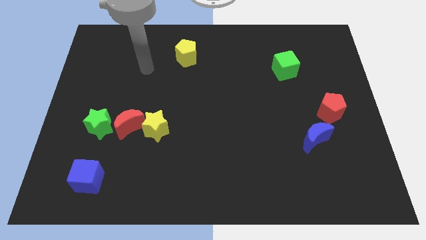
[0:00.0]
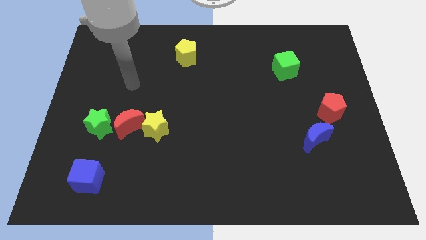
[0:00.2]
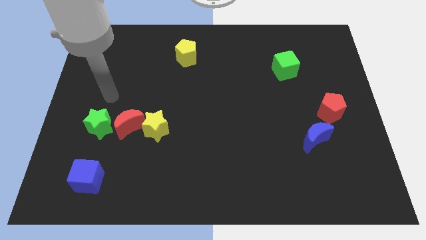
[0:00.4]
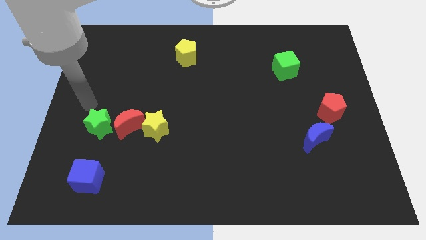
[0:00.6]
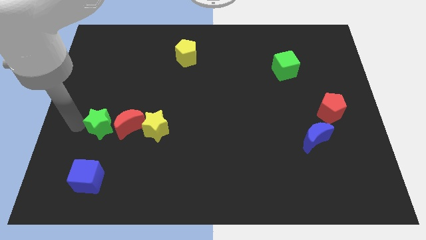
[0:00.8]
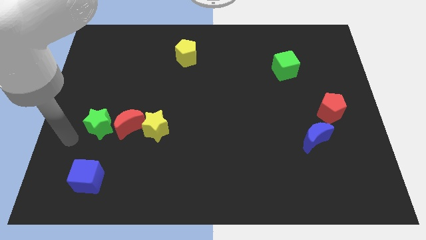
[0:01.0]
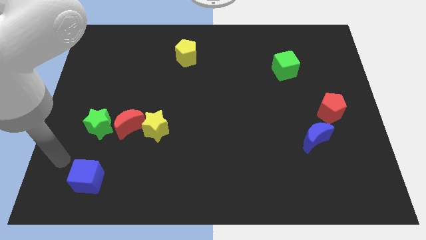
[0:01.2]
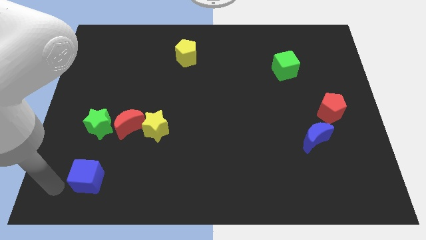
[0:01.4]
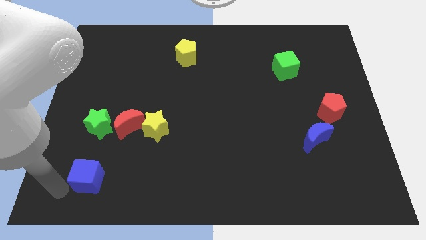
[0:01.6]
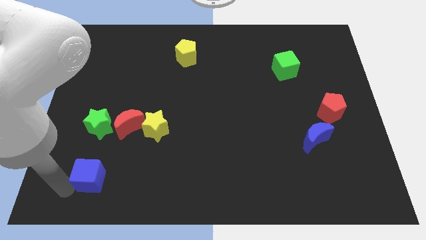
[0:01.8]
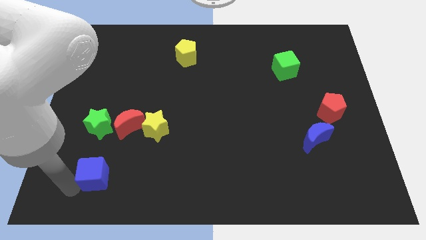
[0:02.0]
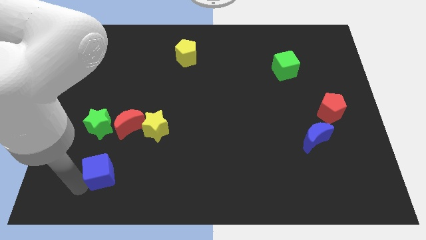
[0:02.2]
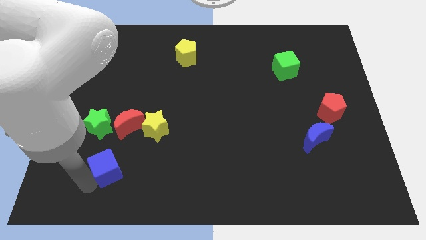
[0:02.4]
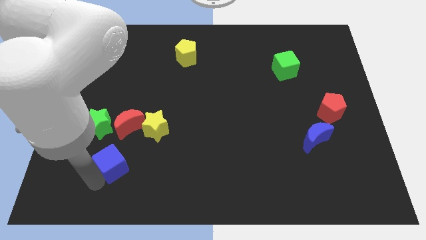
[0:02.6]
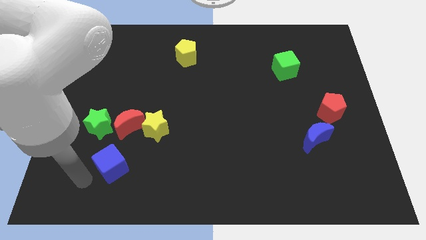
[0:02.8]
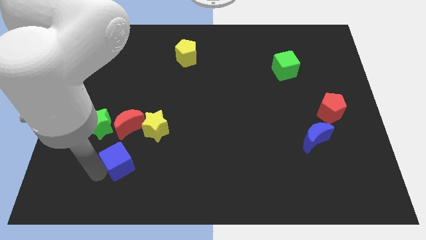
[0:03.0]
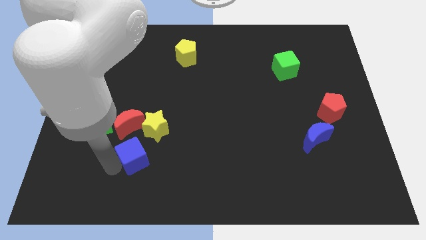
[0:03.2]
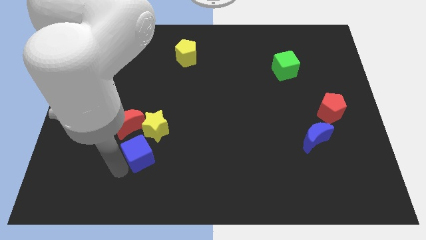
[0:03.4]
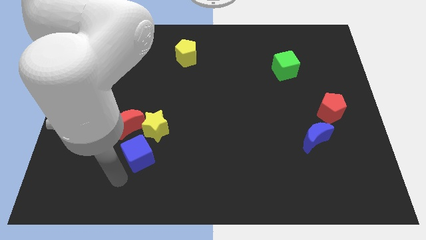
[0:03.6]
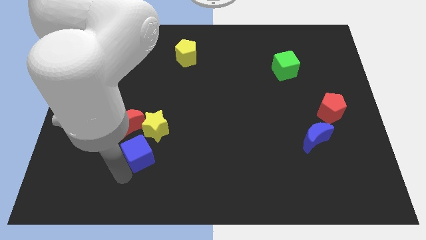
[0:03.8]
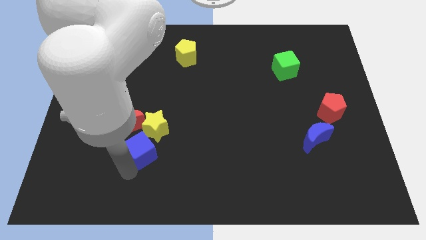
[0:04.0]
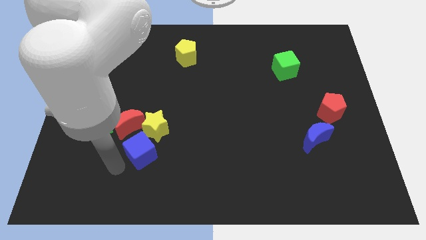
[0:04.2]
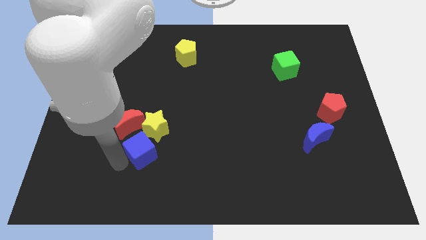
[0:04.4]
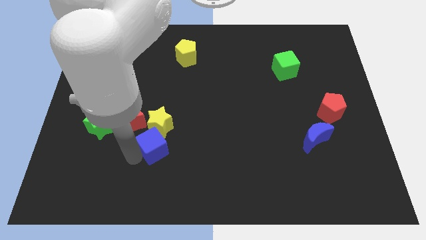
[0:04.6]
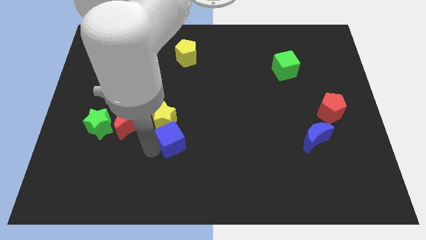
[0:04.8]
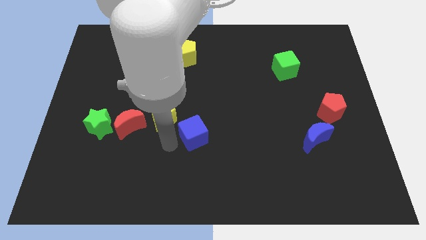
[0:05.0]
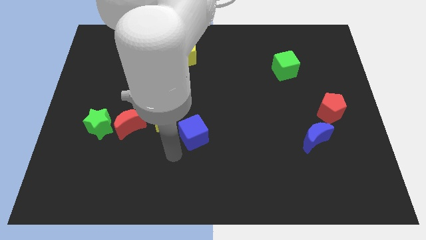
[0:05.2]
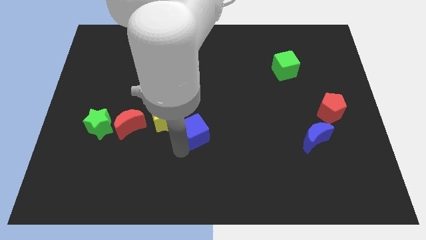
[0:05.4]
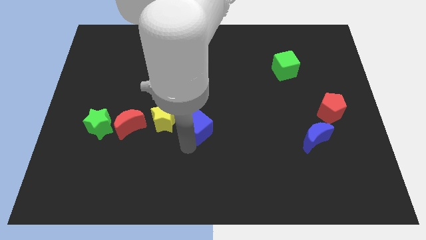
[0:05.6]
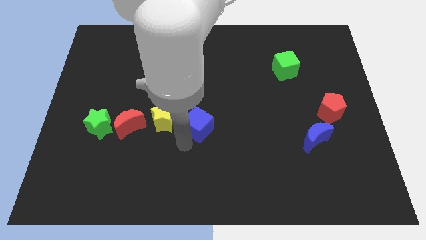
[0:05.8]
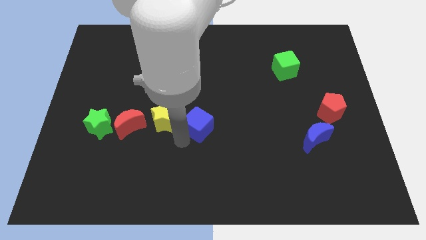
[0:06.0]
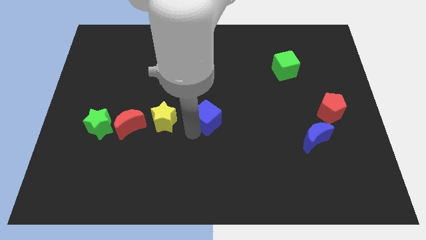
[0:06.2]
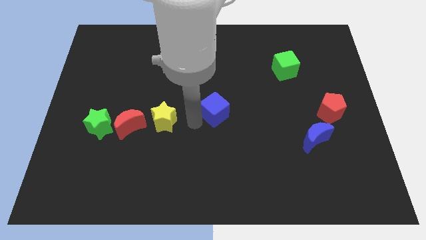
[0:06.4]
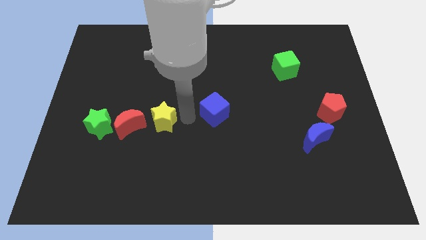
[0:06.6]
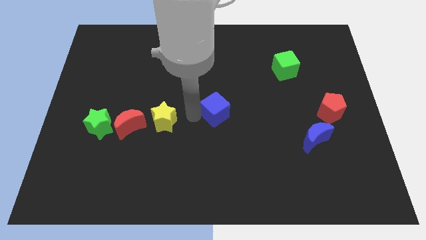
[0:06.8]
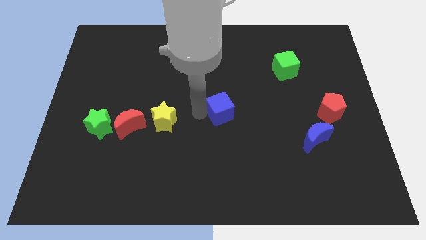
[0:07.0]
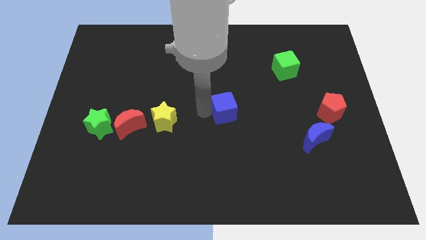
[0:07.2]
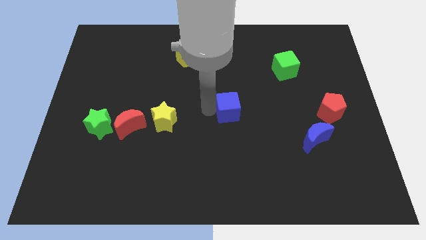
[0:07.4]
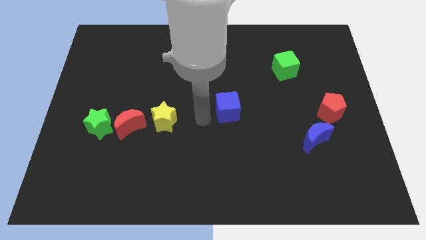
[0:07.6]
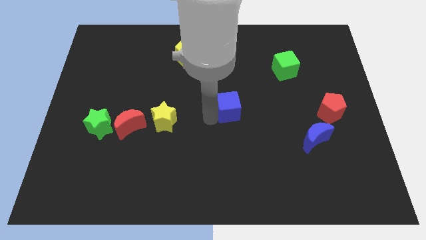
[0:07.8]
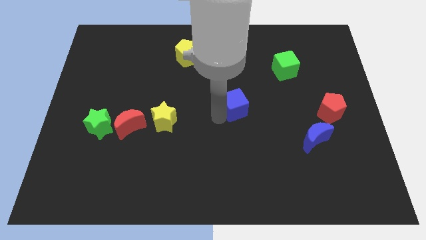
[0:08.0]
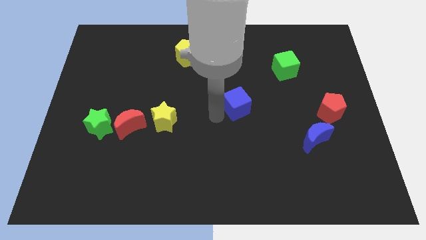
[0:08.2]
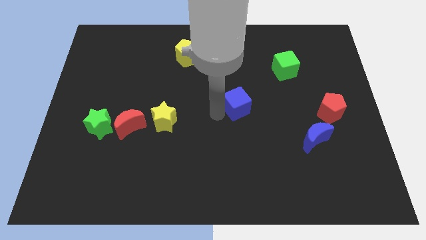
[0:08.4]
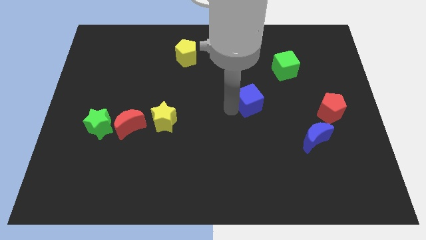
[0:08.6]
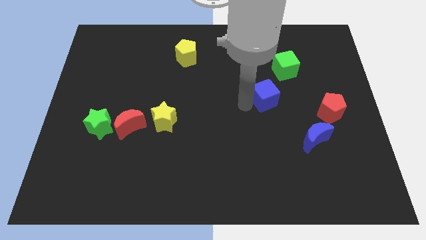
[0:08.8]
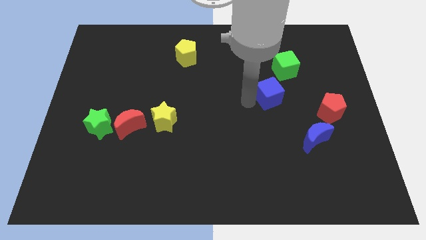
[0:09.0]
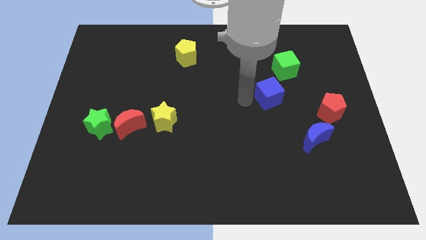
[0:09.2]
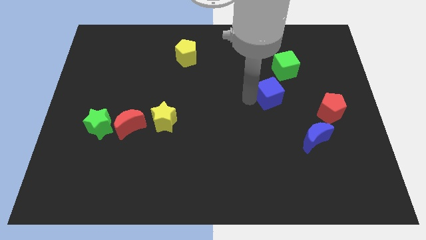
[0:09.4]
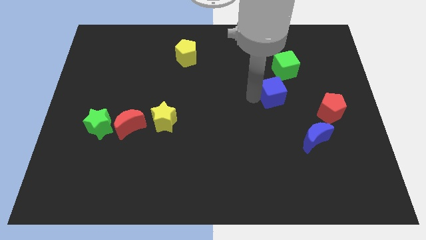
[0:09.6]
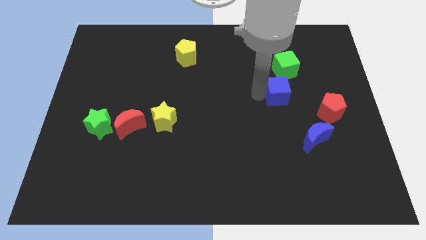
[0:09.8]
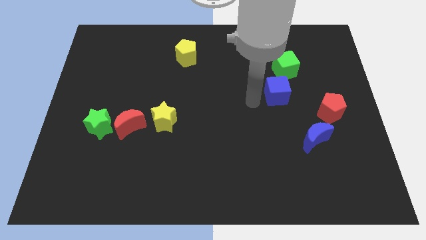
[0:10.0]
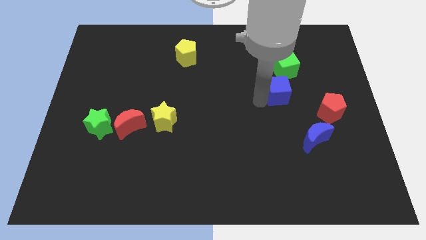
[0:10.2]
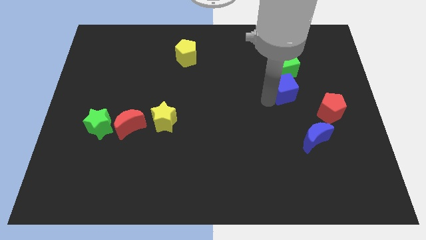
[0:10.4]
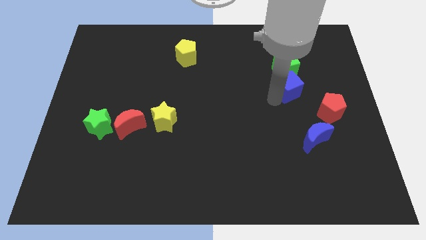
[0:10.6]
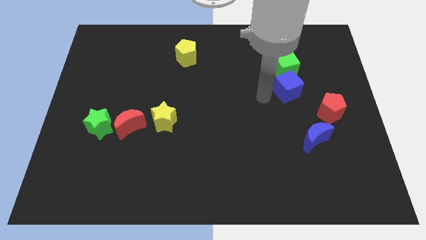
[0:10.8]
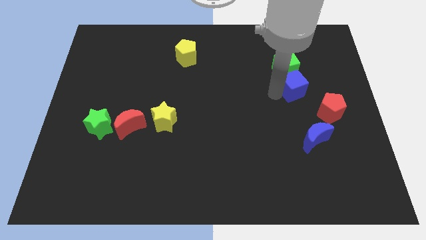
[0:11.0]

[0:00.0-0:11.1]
slide the blue cube to the bottom right side of the green cube

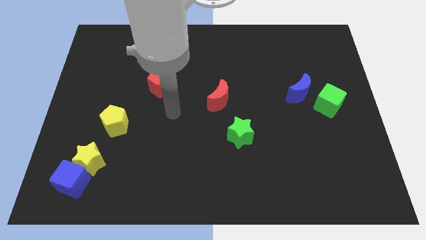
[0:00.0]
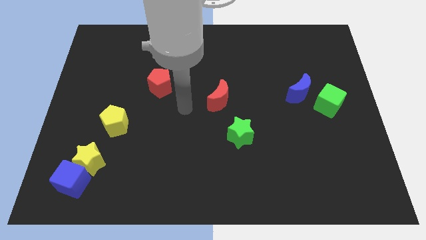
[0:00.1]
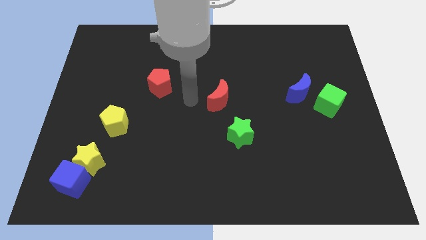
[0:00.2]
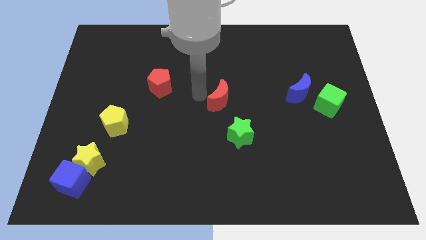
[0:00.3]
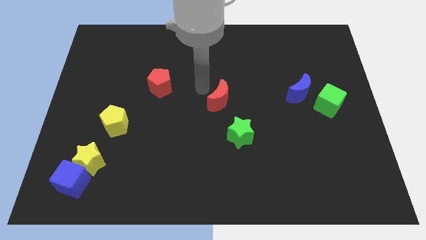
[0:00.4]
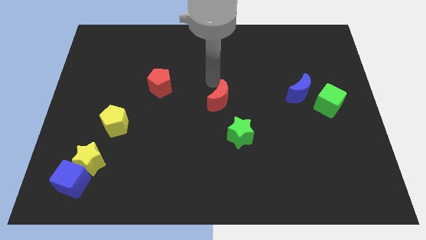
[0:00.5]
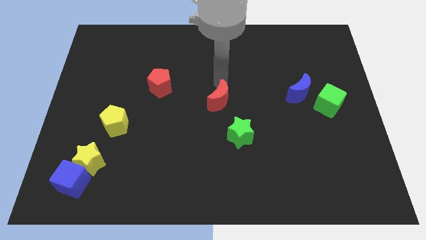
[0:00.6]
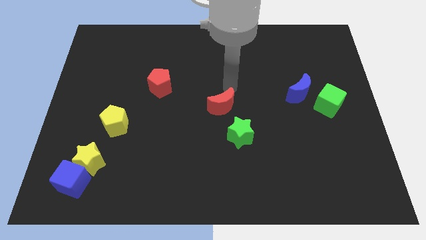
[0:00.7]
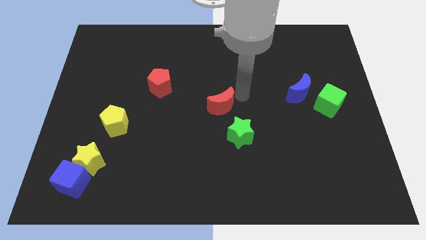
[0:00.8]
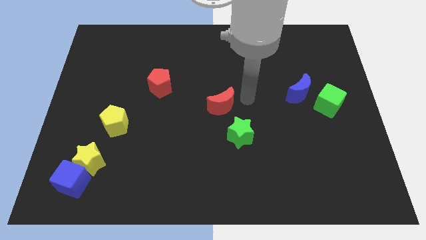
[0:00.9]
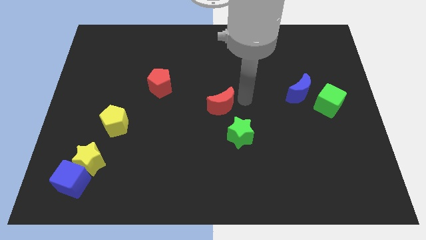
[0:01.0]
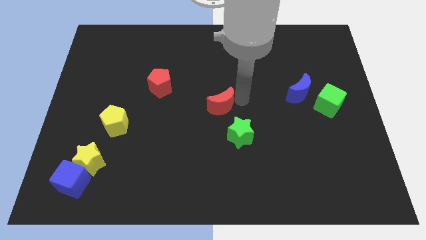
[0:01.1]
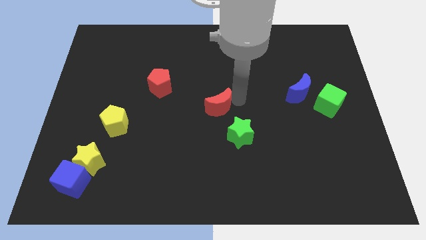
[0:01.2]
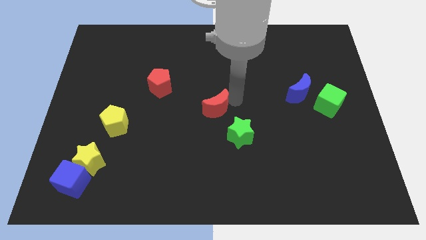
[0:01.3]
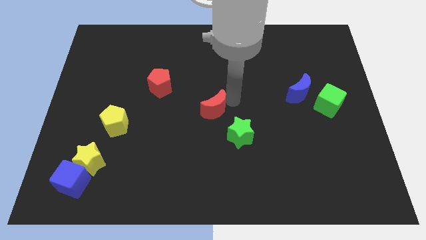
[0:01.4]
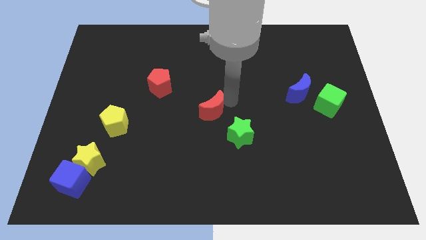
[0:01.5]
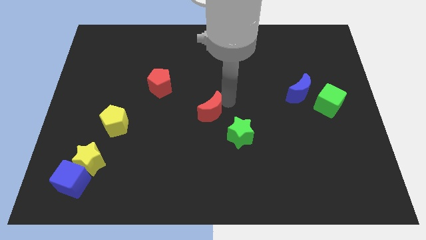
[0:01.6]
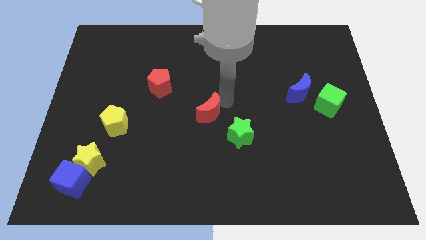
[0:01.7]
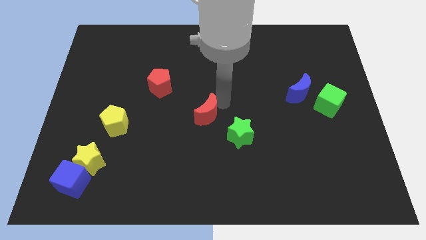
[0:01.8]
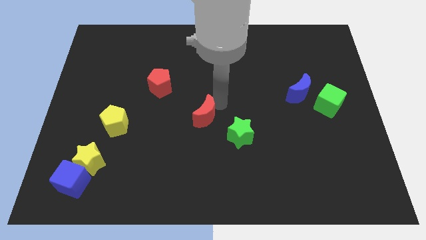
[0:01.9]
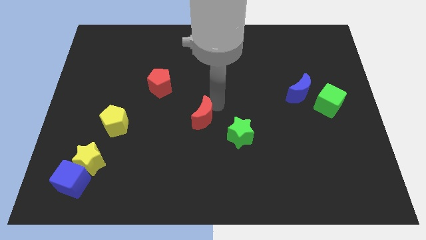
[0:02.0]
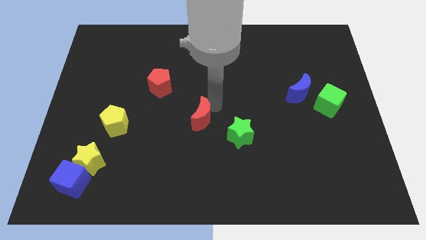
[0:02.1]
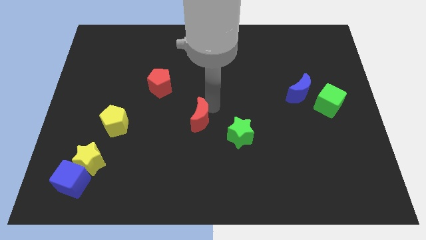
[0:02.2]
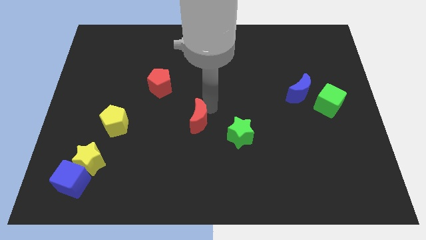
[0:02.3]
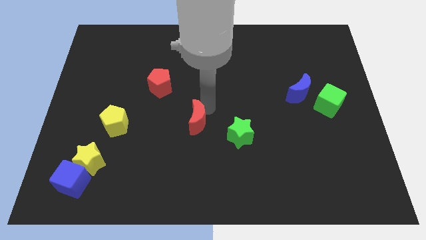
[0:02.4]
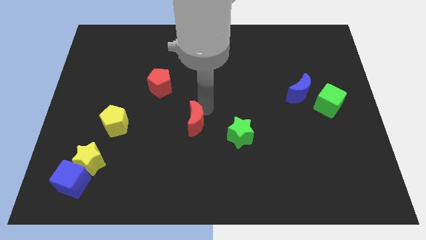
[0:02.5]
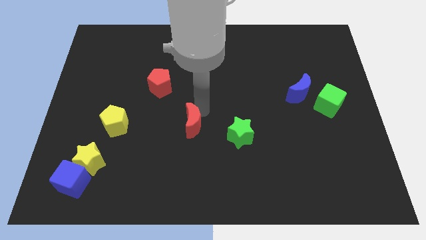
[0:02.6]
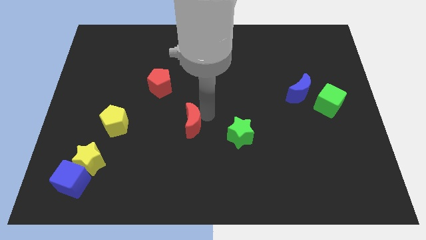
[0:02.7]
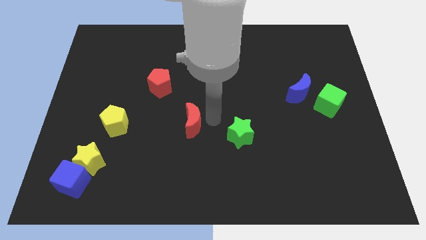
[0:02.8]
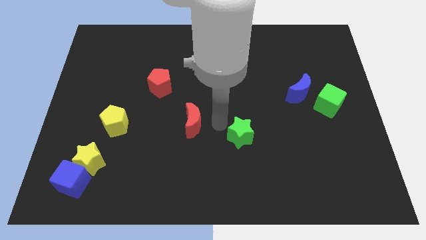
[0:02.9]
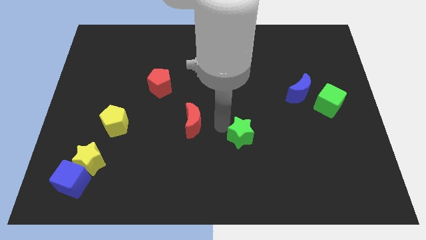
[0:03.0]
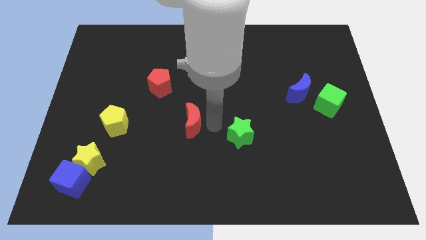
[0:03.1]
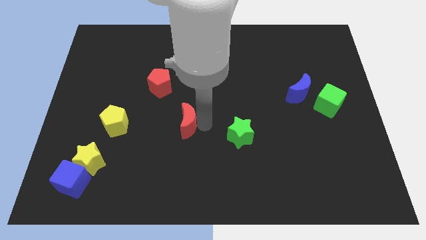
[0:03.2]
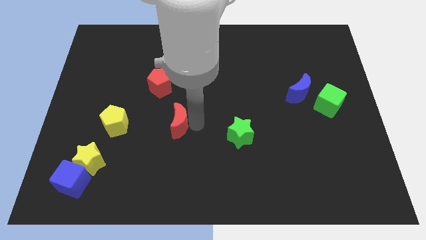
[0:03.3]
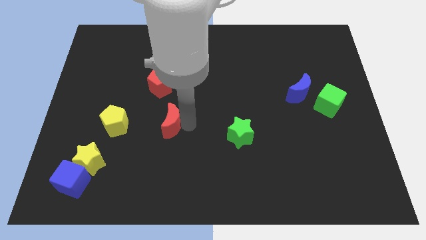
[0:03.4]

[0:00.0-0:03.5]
slide the red moon to the bottom of the red pentagon
